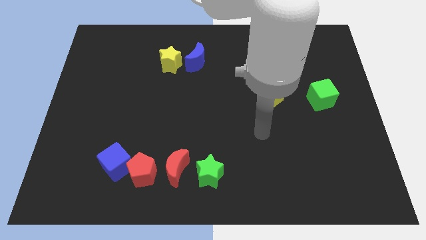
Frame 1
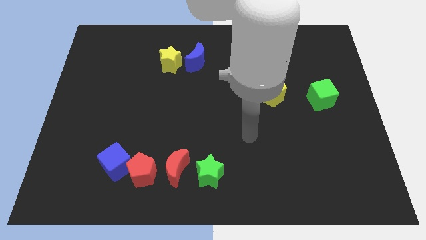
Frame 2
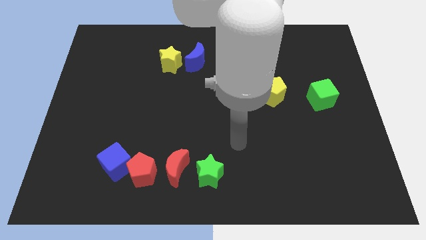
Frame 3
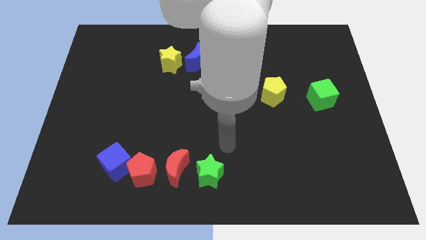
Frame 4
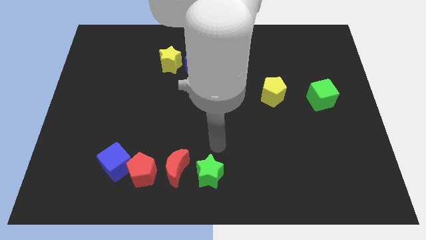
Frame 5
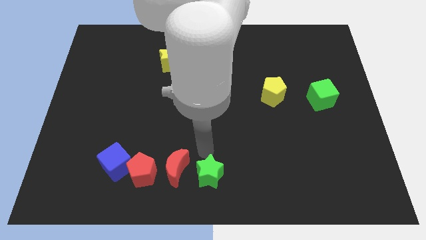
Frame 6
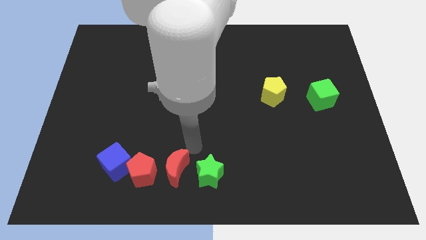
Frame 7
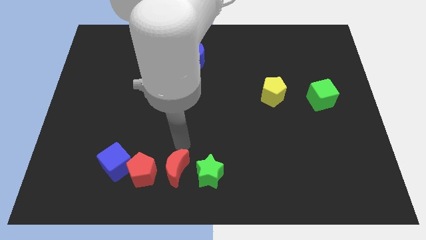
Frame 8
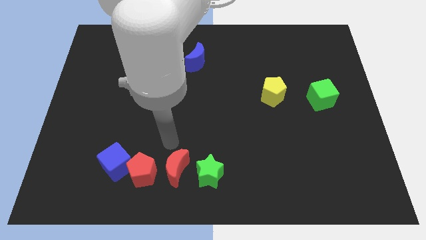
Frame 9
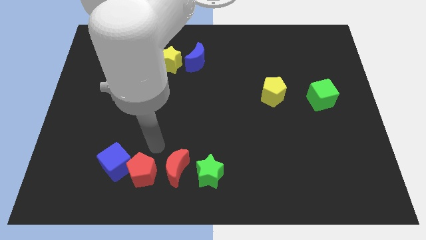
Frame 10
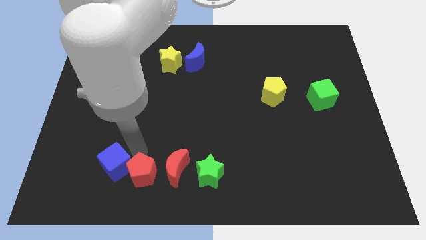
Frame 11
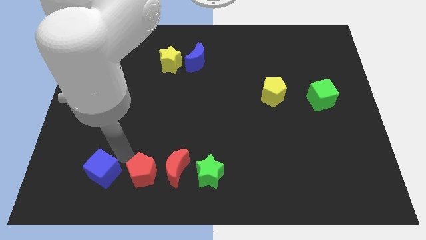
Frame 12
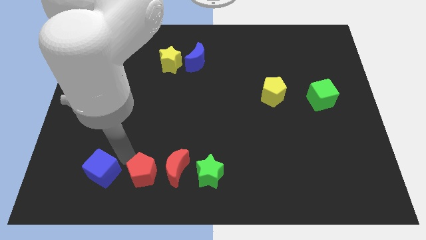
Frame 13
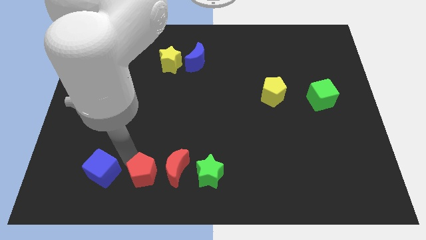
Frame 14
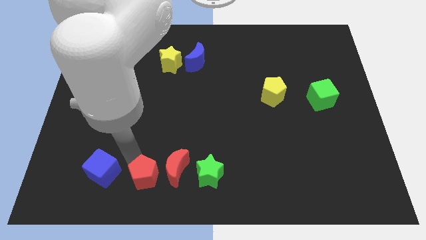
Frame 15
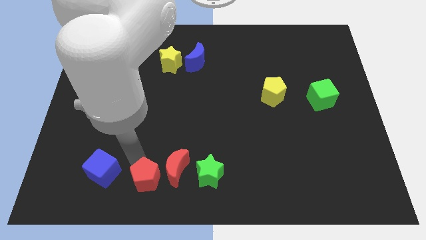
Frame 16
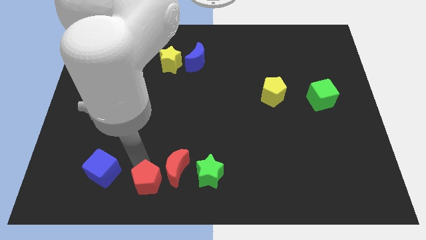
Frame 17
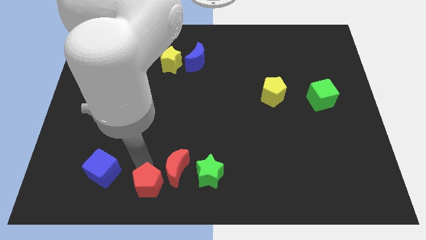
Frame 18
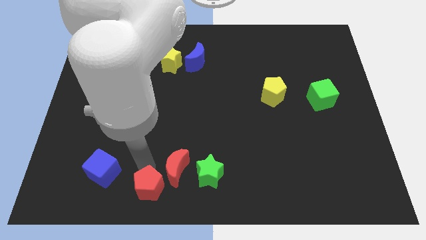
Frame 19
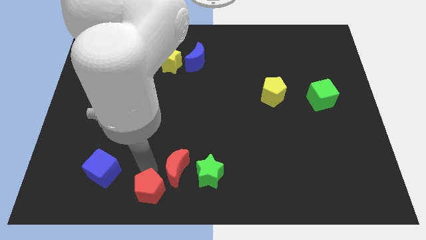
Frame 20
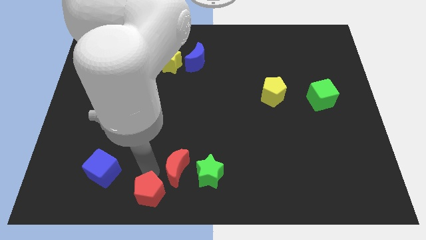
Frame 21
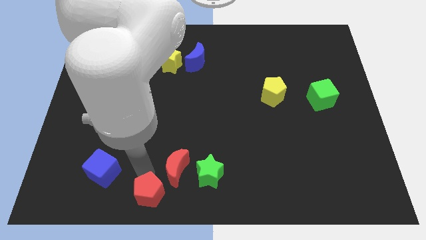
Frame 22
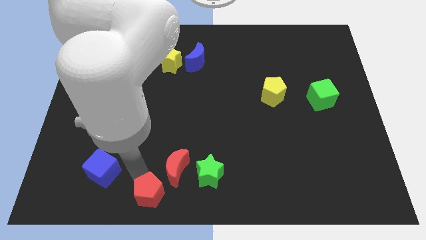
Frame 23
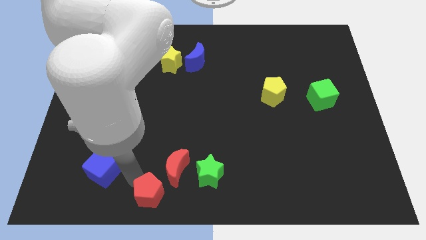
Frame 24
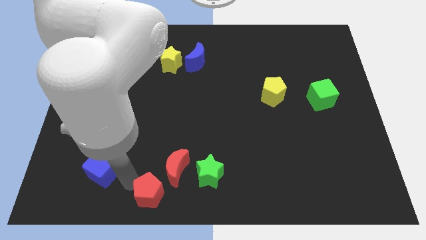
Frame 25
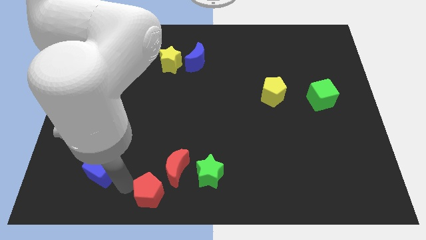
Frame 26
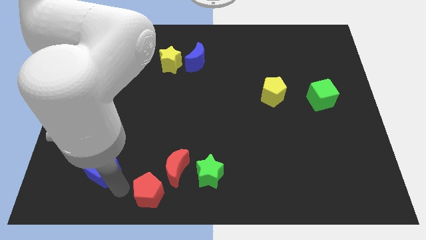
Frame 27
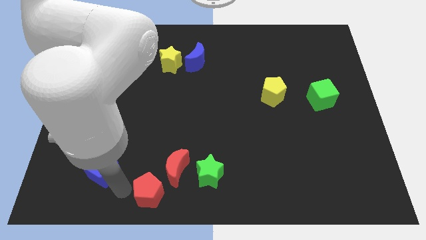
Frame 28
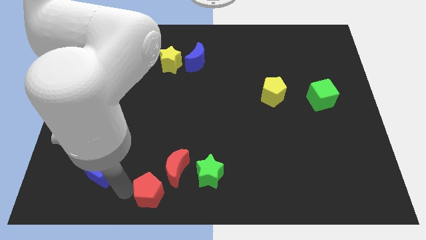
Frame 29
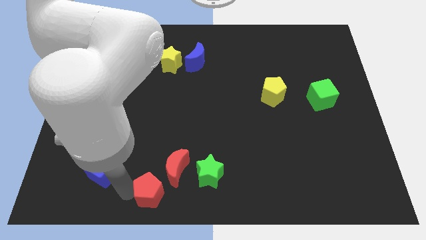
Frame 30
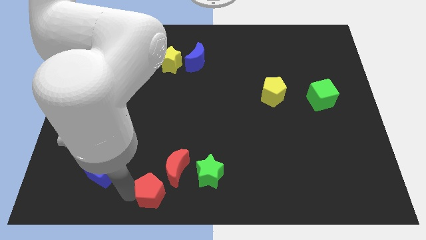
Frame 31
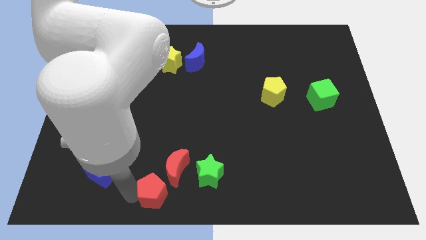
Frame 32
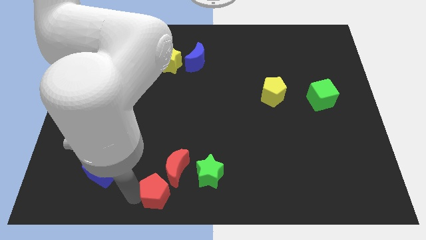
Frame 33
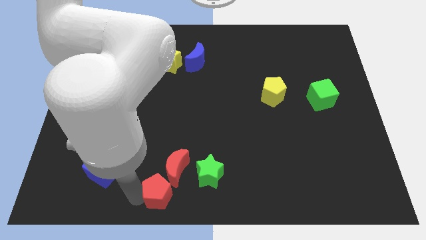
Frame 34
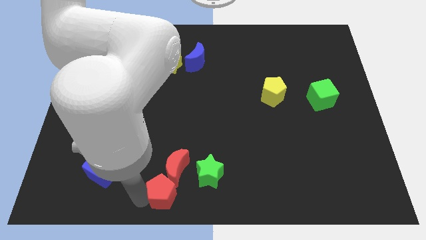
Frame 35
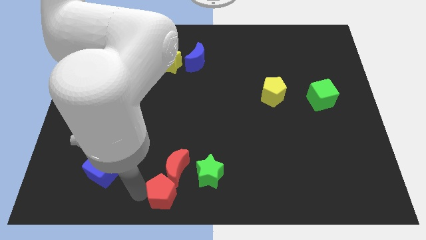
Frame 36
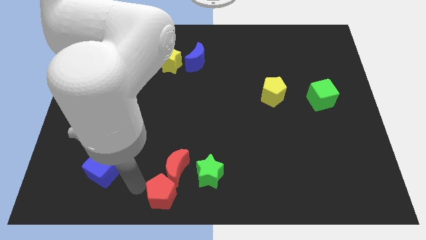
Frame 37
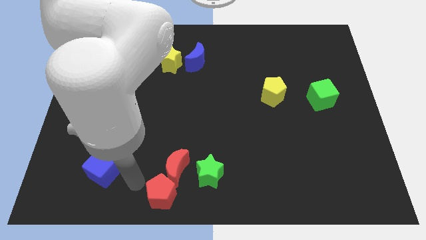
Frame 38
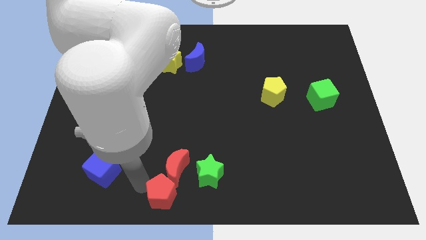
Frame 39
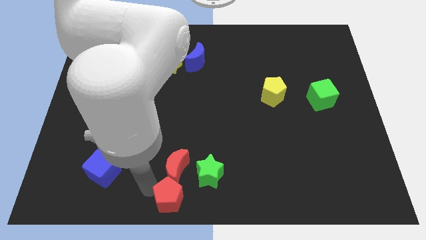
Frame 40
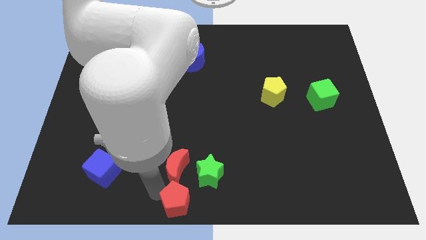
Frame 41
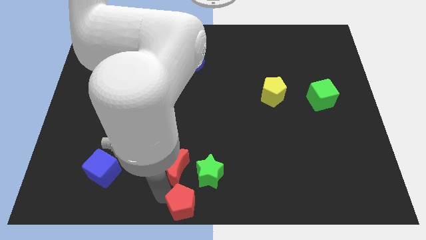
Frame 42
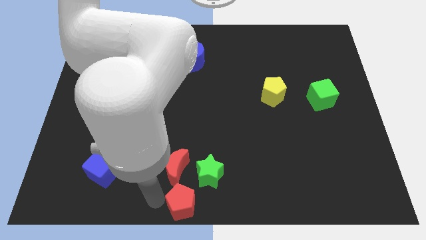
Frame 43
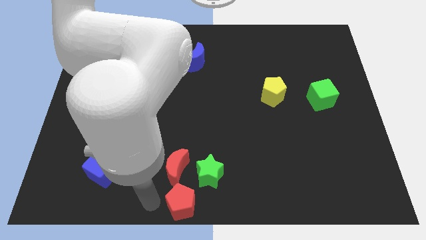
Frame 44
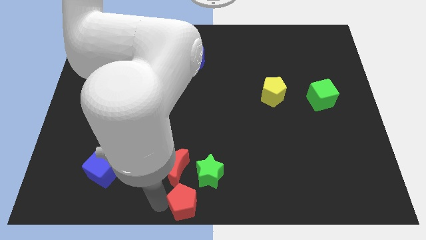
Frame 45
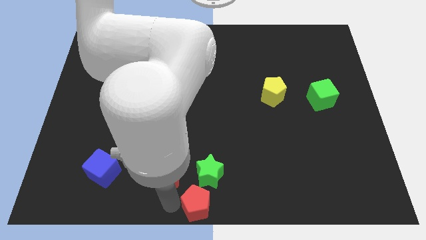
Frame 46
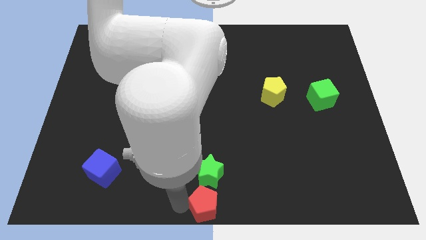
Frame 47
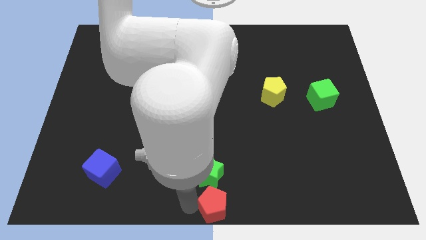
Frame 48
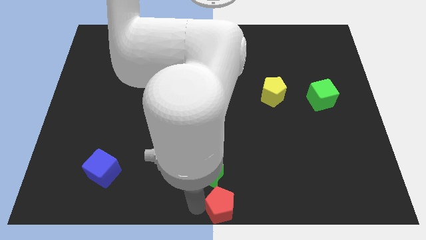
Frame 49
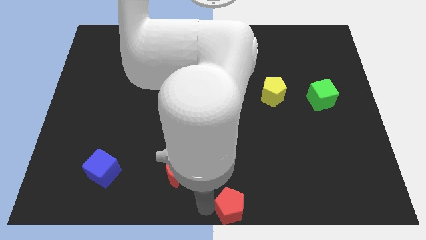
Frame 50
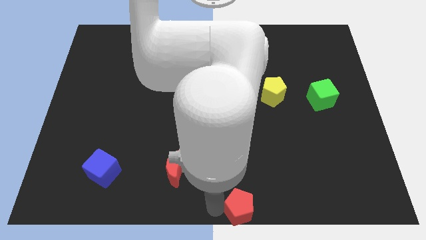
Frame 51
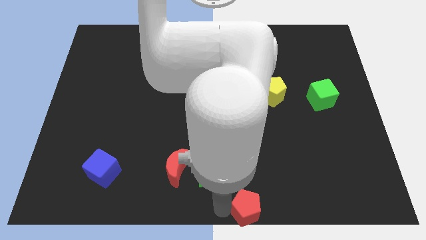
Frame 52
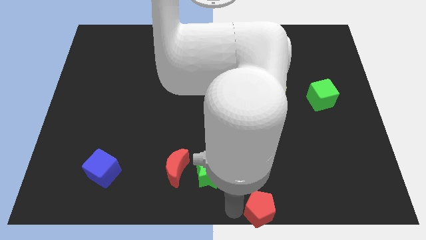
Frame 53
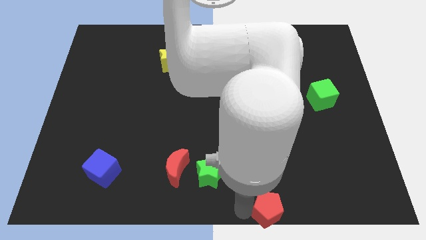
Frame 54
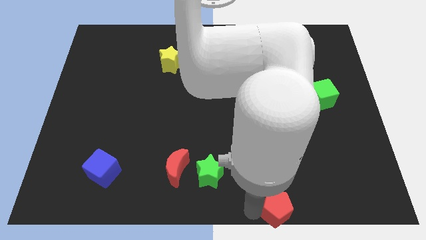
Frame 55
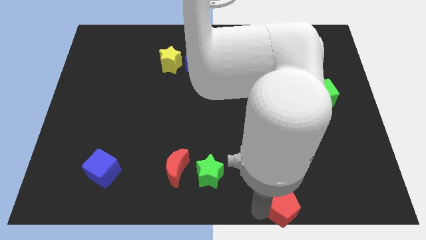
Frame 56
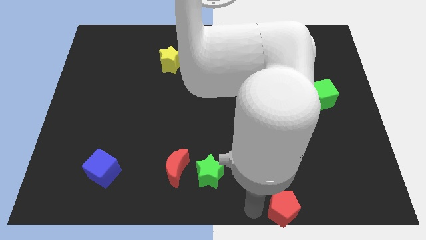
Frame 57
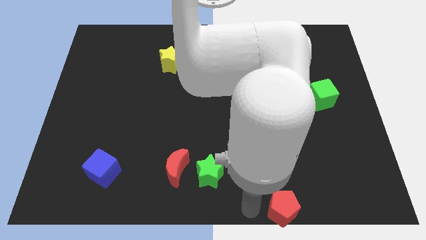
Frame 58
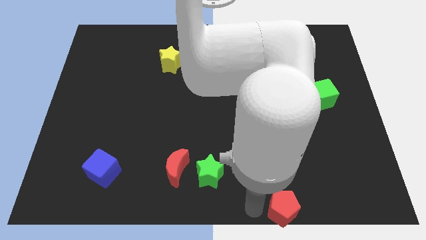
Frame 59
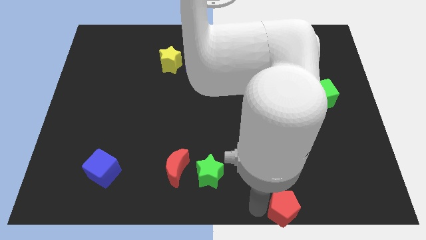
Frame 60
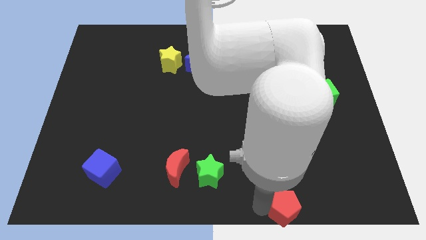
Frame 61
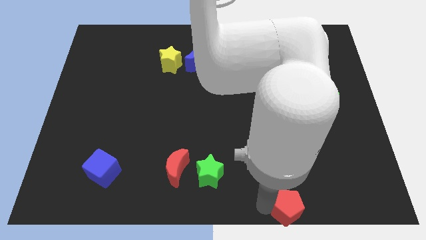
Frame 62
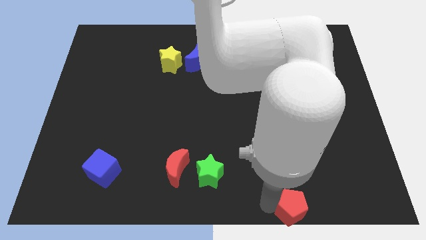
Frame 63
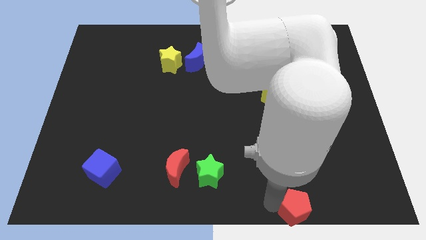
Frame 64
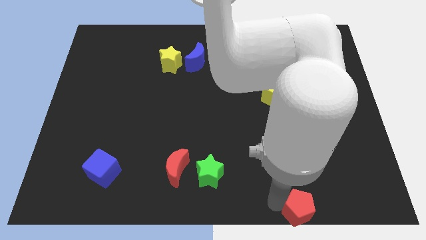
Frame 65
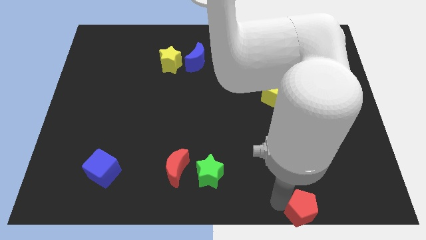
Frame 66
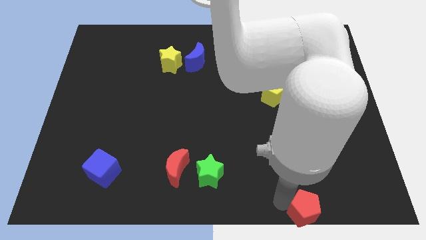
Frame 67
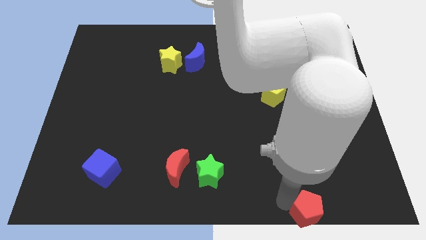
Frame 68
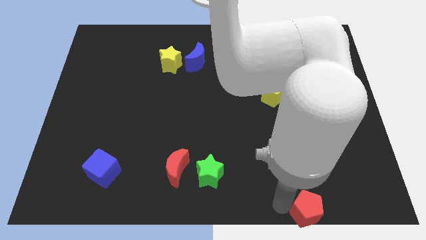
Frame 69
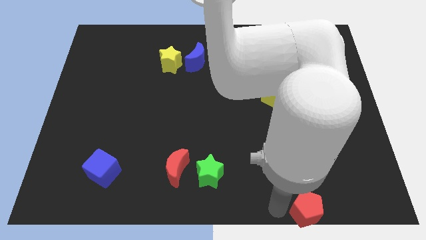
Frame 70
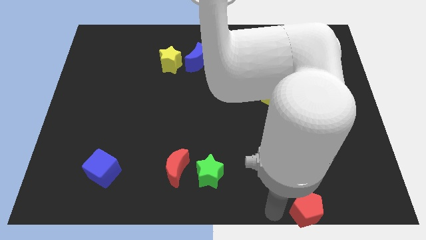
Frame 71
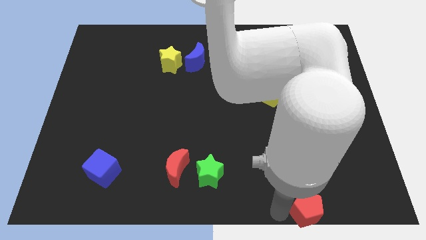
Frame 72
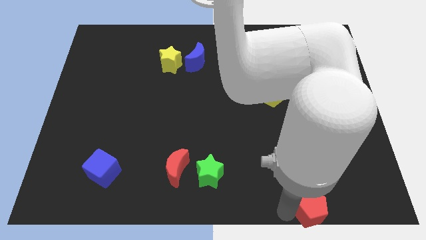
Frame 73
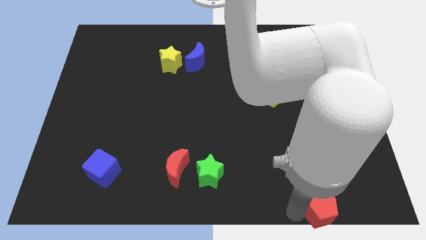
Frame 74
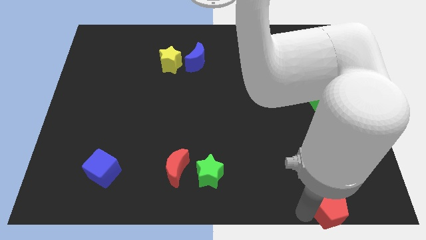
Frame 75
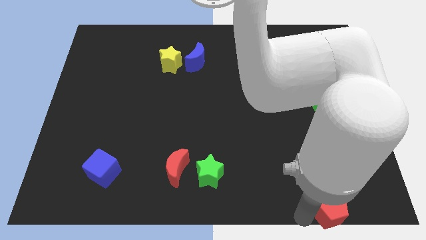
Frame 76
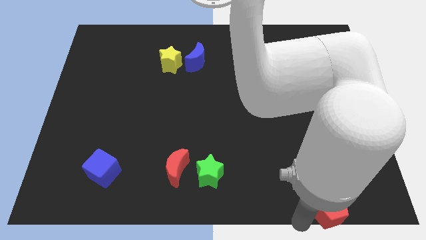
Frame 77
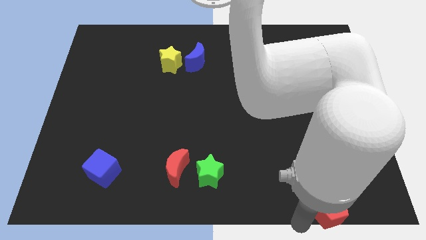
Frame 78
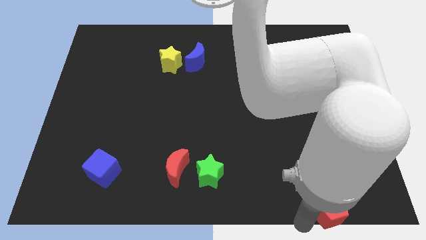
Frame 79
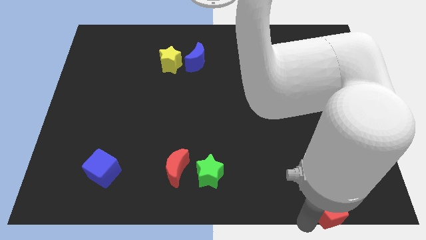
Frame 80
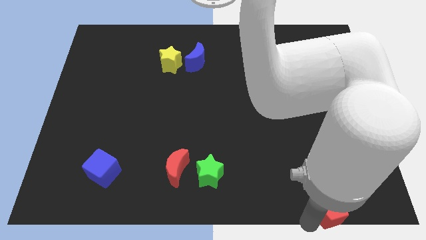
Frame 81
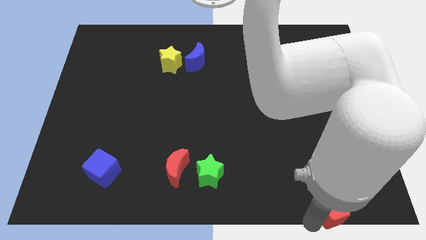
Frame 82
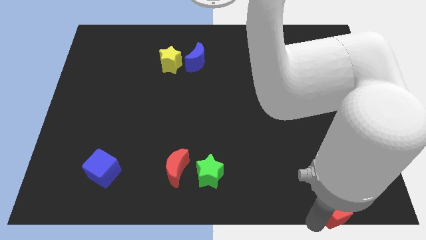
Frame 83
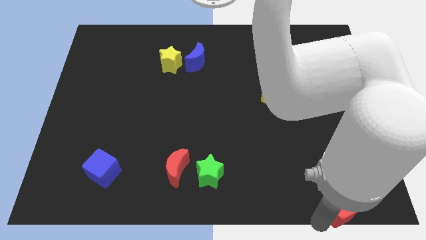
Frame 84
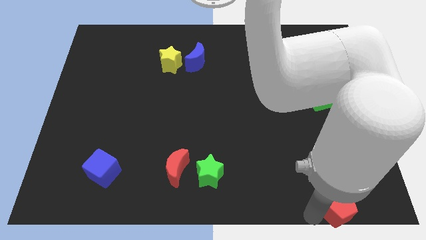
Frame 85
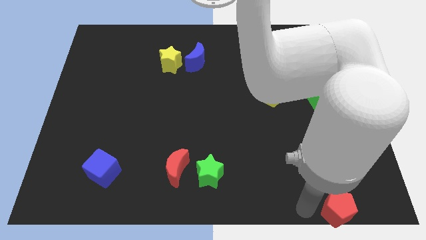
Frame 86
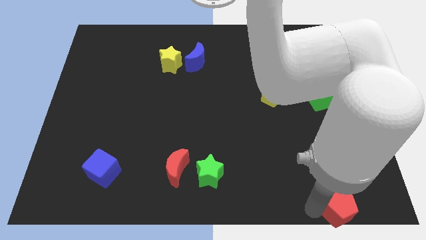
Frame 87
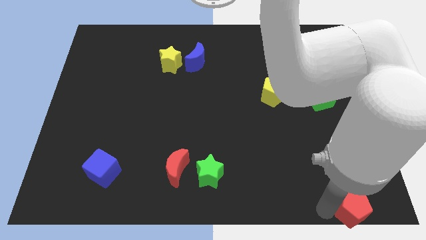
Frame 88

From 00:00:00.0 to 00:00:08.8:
push the red pentagon to the lower right corner
